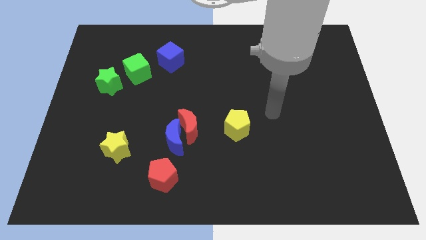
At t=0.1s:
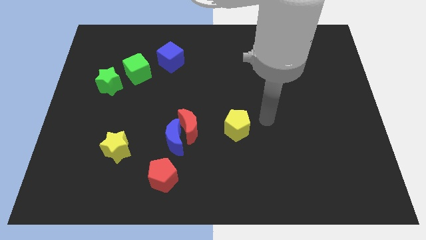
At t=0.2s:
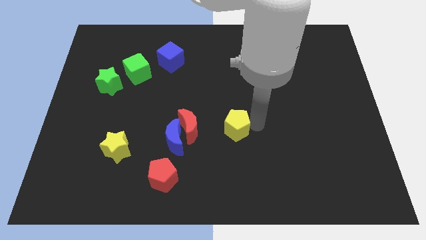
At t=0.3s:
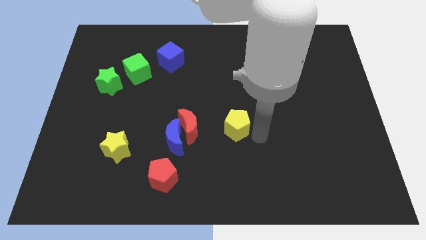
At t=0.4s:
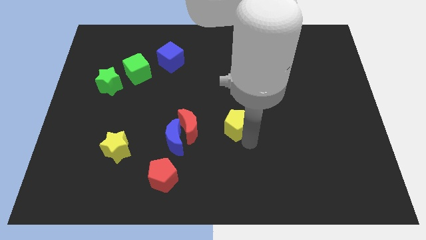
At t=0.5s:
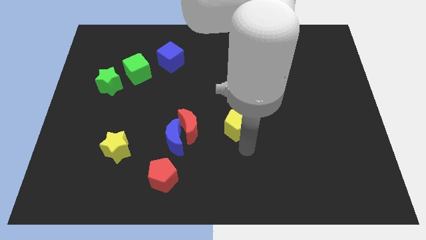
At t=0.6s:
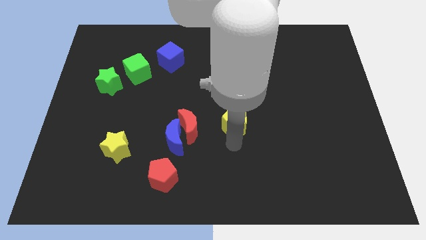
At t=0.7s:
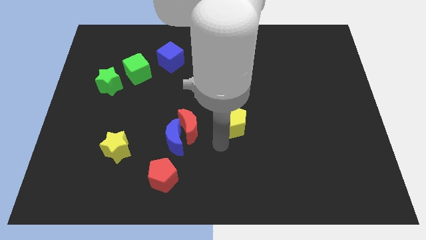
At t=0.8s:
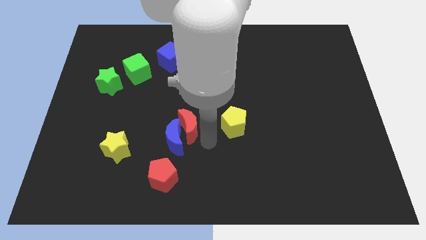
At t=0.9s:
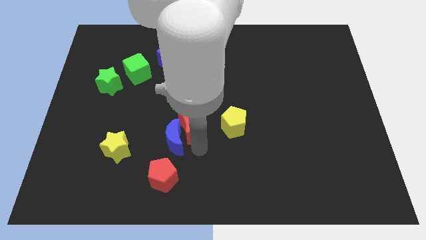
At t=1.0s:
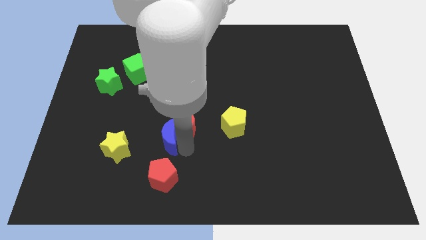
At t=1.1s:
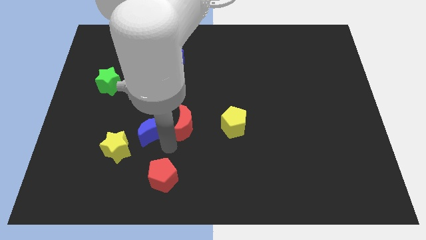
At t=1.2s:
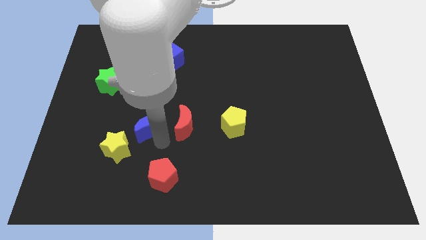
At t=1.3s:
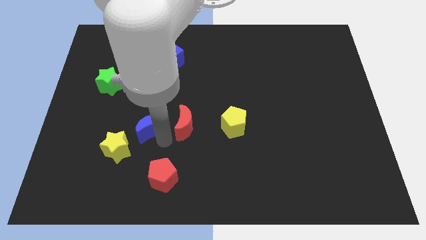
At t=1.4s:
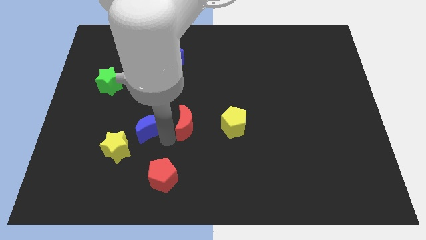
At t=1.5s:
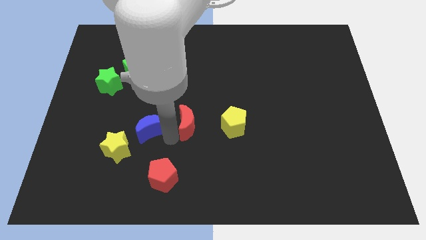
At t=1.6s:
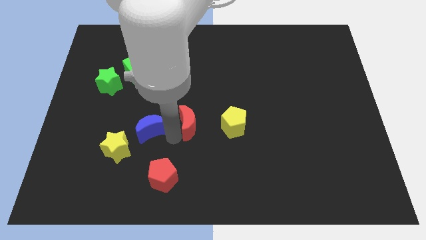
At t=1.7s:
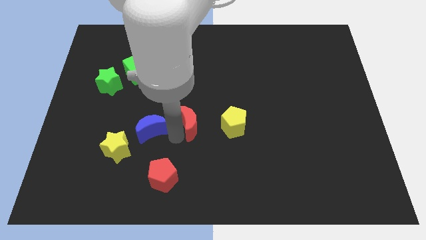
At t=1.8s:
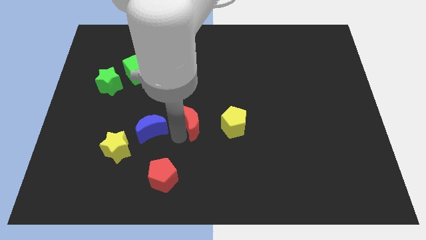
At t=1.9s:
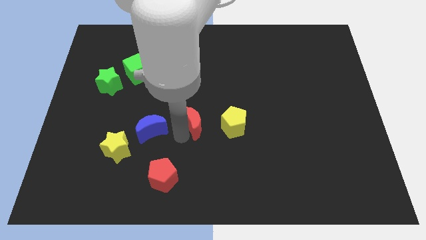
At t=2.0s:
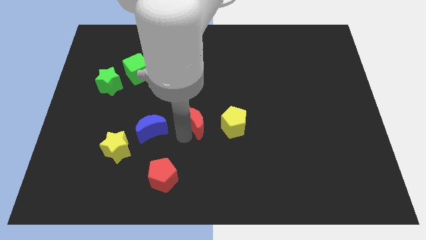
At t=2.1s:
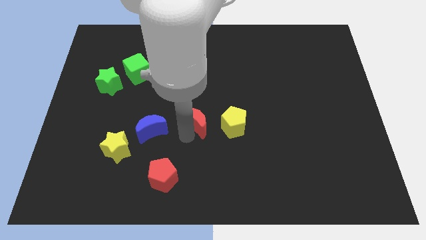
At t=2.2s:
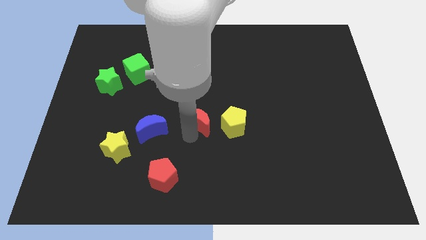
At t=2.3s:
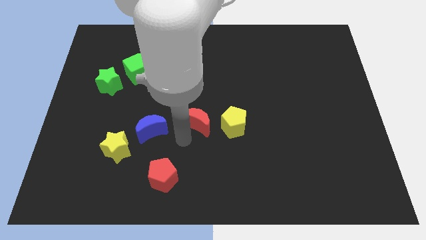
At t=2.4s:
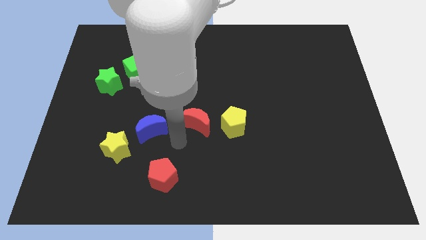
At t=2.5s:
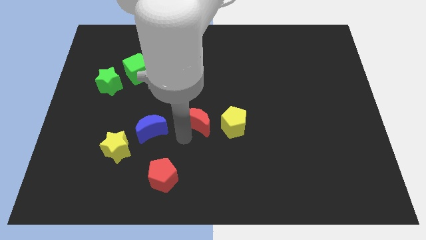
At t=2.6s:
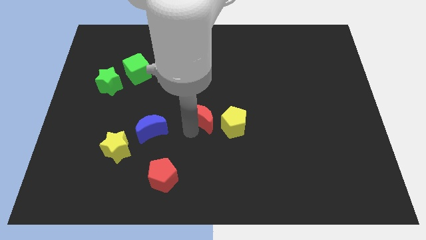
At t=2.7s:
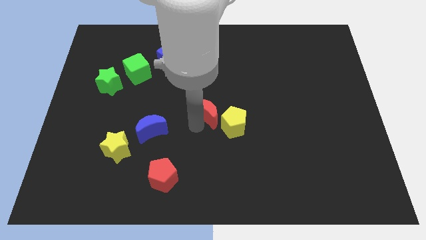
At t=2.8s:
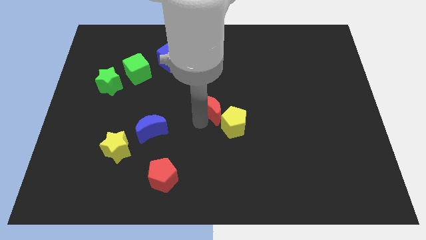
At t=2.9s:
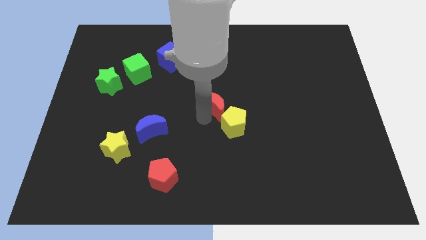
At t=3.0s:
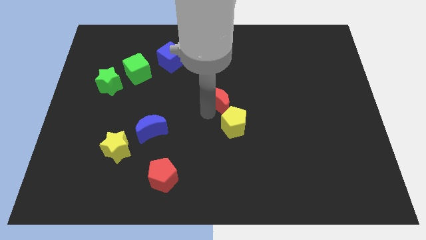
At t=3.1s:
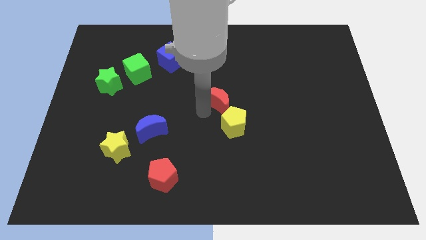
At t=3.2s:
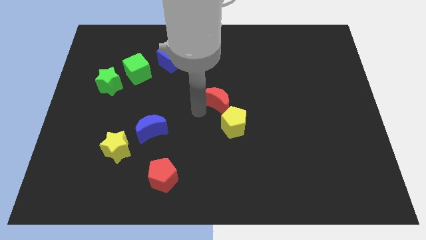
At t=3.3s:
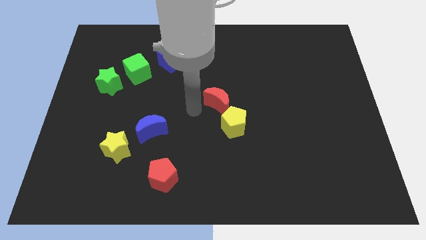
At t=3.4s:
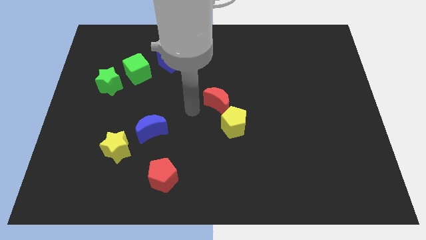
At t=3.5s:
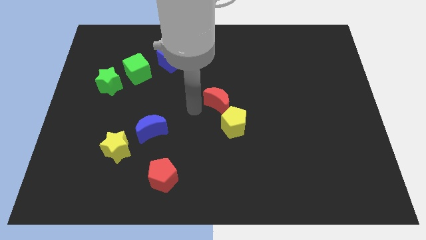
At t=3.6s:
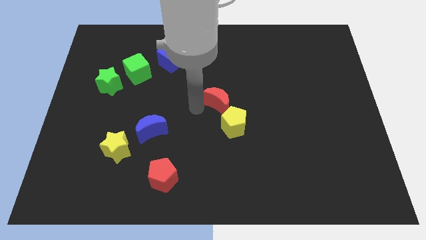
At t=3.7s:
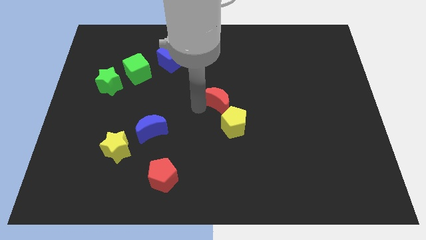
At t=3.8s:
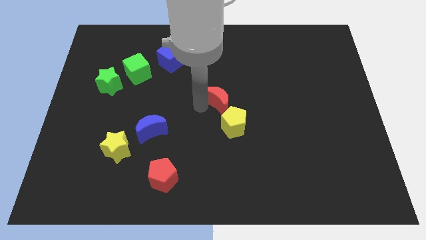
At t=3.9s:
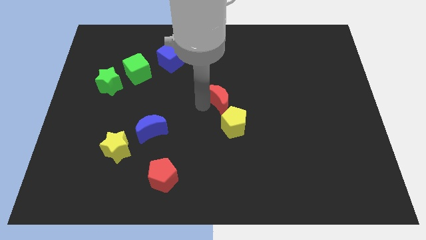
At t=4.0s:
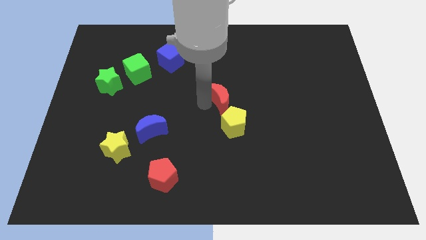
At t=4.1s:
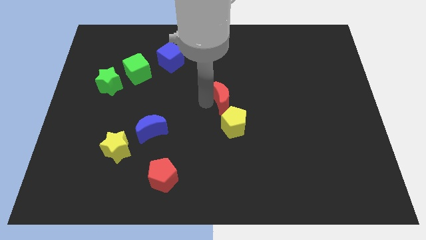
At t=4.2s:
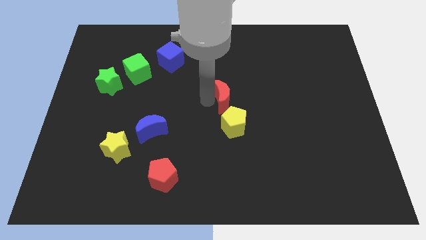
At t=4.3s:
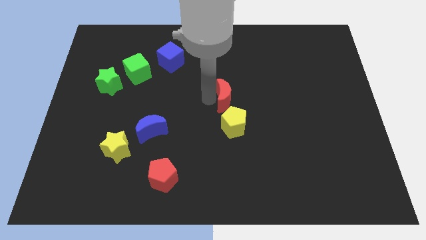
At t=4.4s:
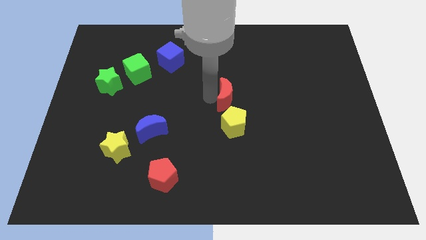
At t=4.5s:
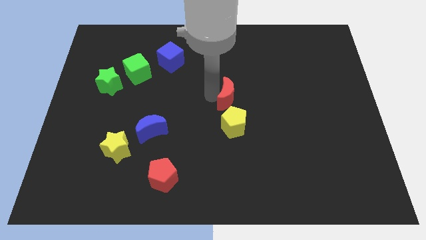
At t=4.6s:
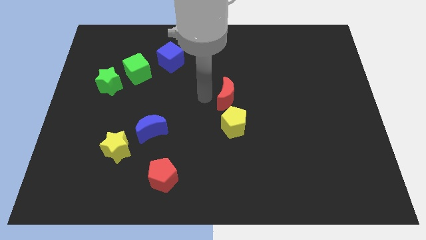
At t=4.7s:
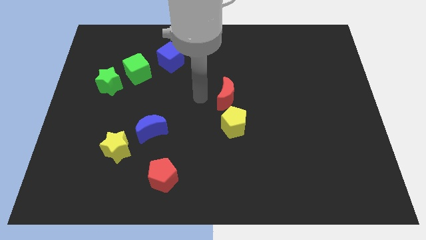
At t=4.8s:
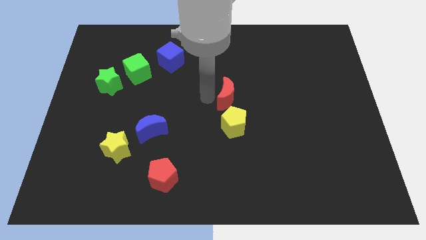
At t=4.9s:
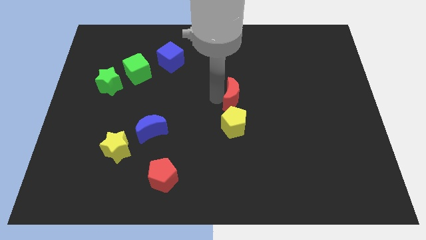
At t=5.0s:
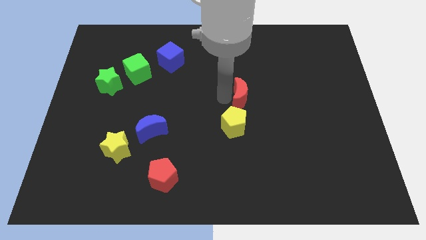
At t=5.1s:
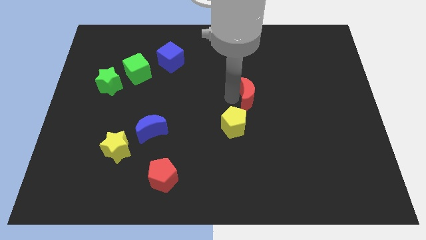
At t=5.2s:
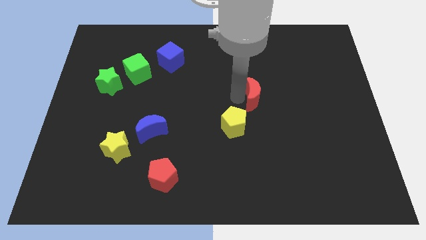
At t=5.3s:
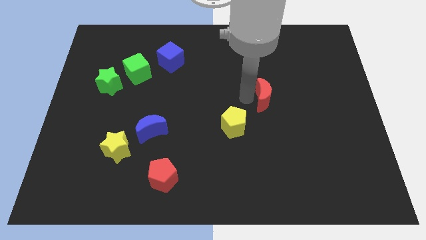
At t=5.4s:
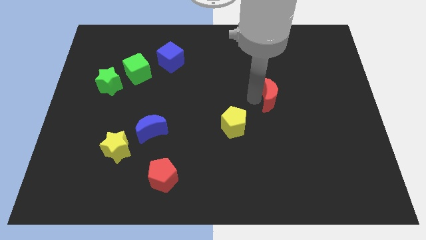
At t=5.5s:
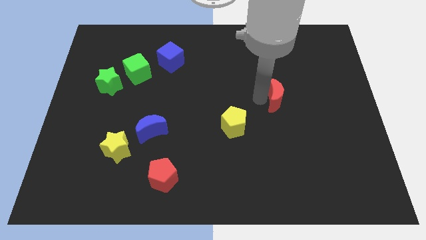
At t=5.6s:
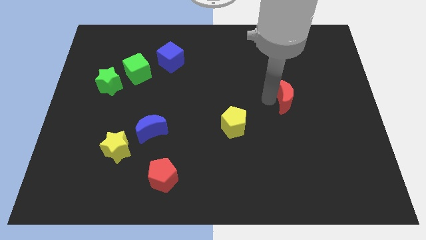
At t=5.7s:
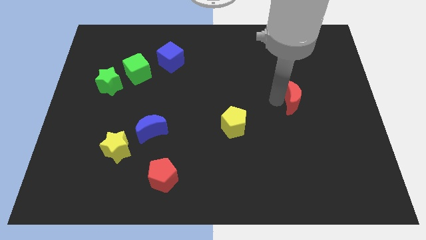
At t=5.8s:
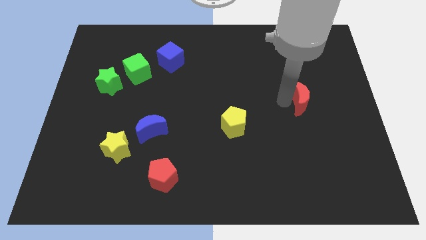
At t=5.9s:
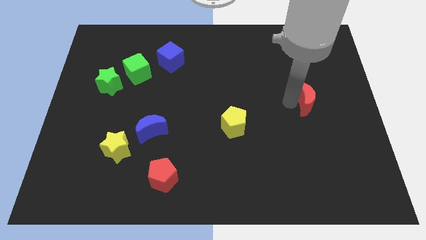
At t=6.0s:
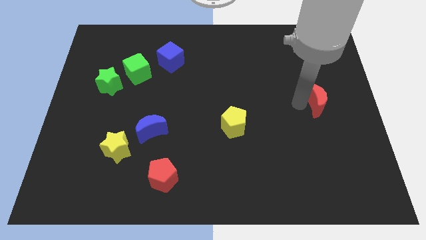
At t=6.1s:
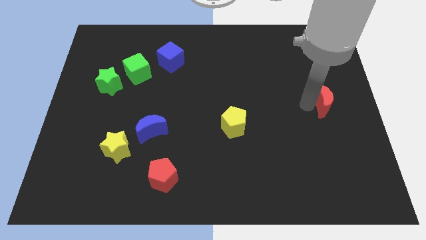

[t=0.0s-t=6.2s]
put the red moon to the right side
